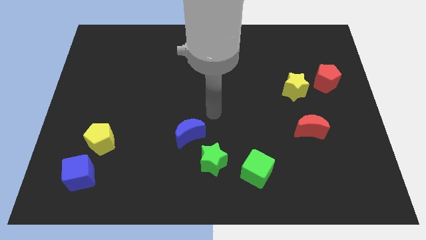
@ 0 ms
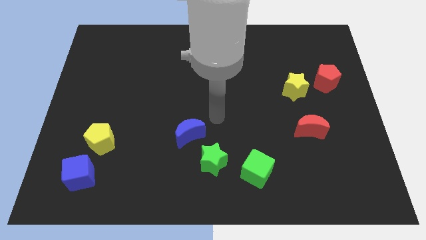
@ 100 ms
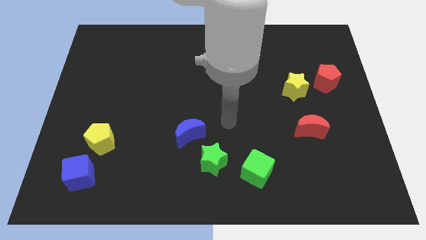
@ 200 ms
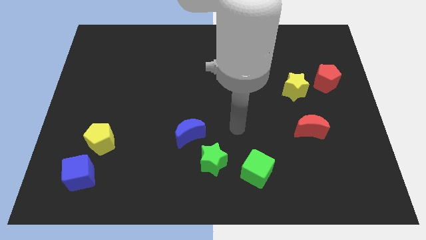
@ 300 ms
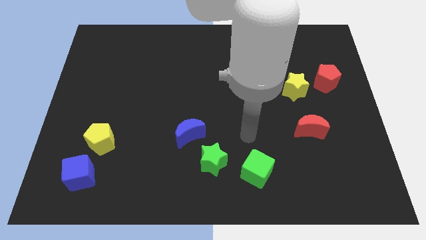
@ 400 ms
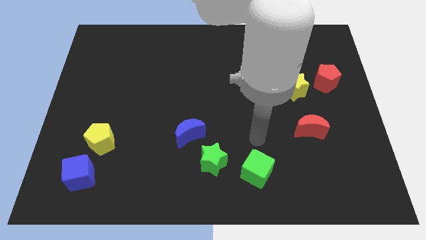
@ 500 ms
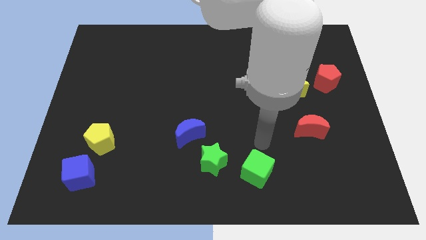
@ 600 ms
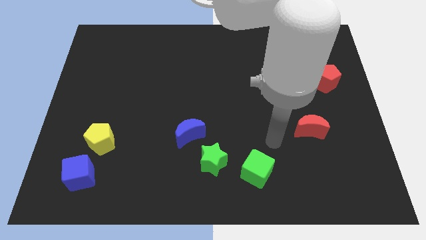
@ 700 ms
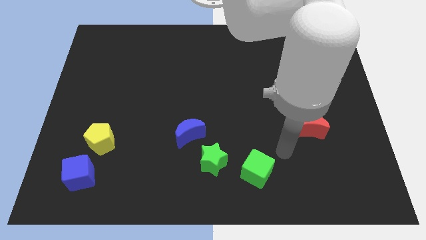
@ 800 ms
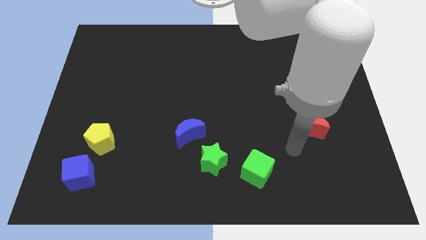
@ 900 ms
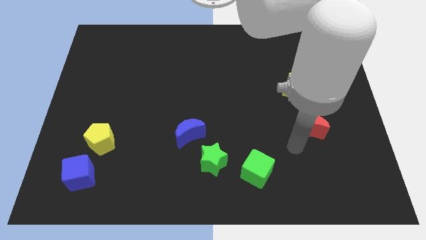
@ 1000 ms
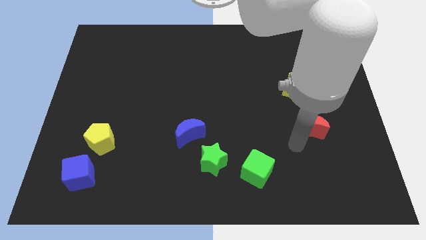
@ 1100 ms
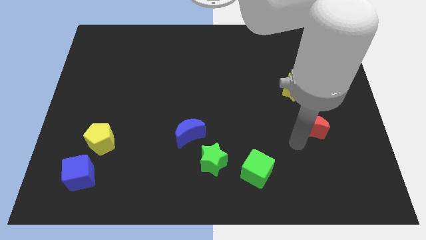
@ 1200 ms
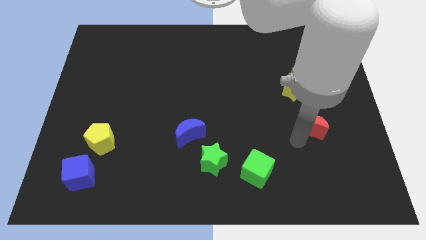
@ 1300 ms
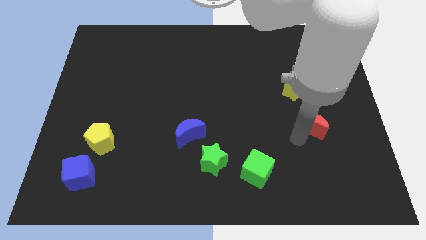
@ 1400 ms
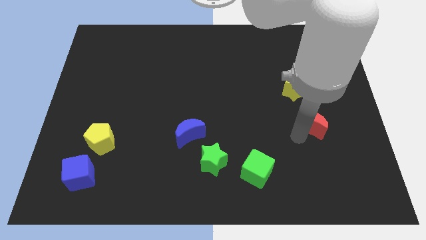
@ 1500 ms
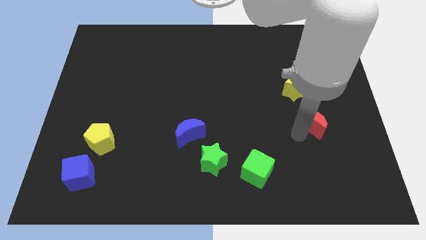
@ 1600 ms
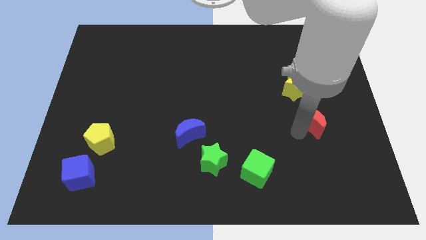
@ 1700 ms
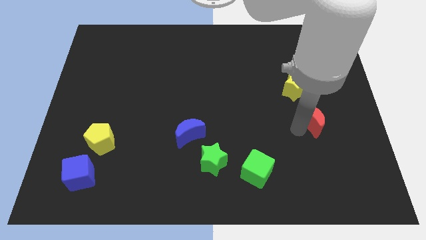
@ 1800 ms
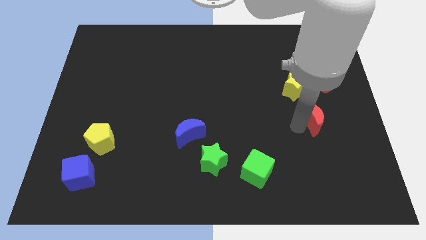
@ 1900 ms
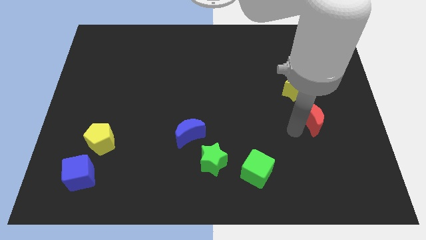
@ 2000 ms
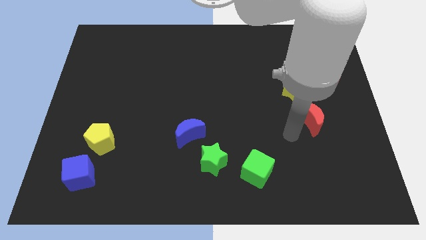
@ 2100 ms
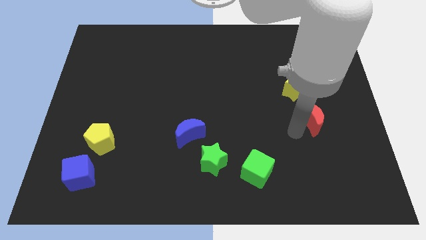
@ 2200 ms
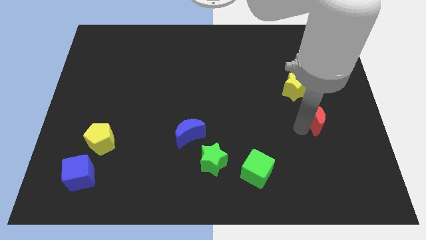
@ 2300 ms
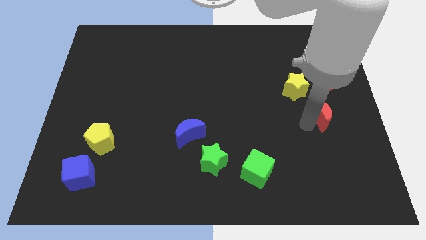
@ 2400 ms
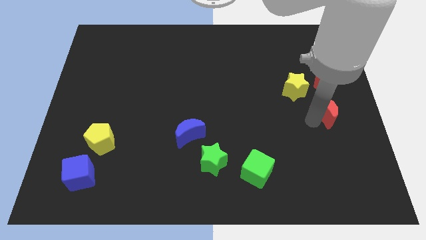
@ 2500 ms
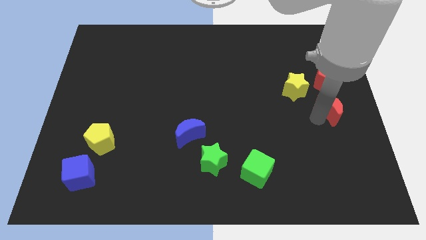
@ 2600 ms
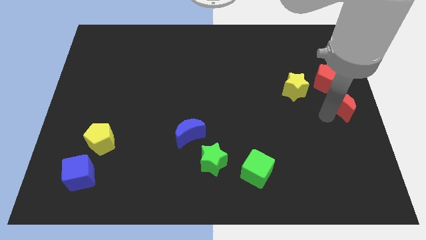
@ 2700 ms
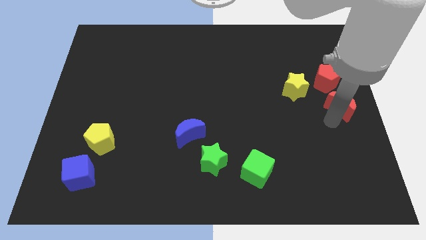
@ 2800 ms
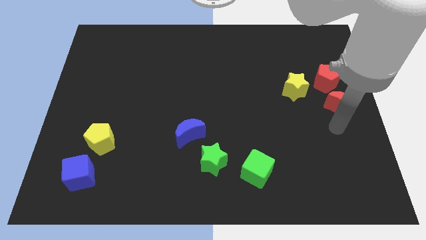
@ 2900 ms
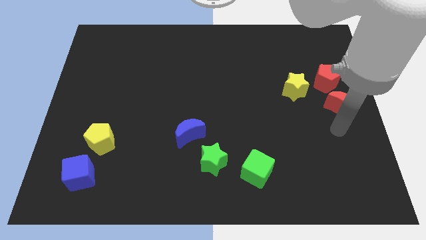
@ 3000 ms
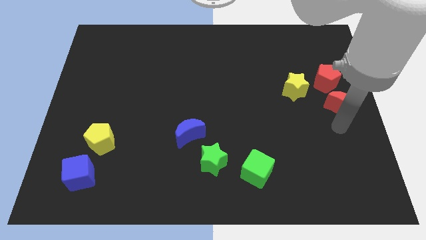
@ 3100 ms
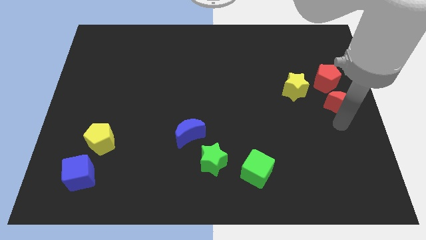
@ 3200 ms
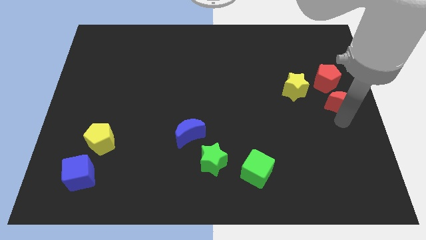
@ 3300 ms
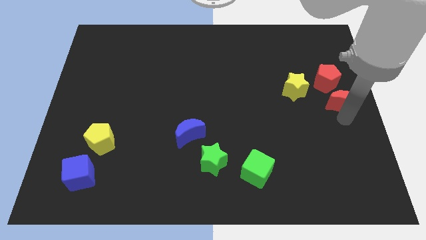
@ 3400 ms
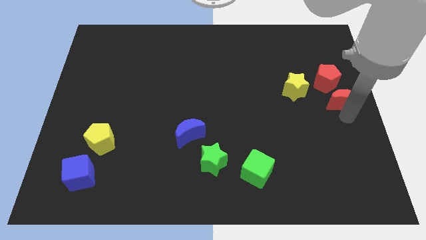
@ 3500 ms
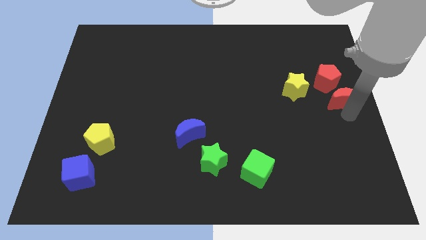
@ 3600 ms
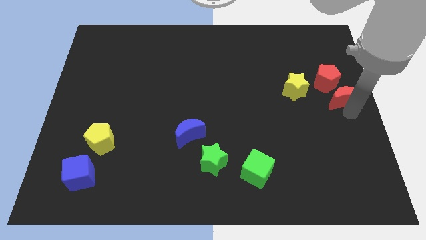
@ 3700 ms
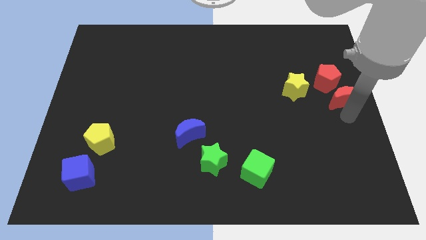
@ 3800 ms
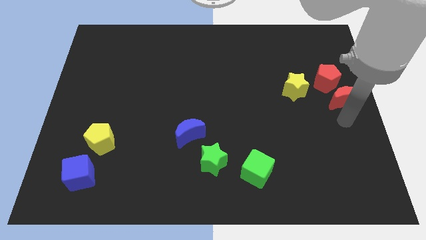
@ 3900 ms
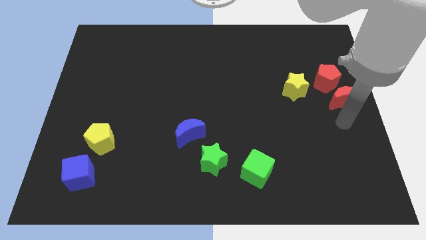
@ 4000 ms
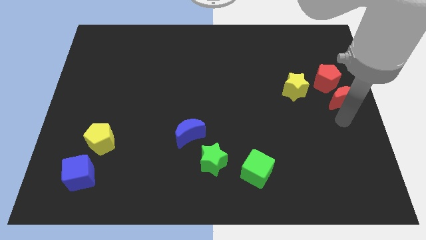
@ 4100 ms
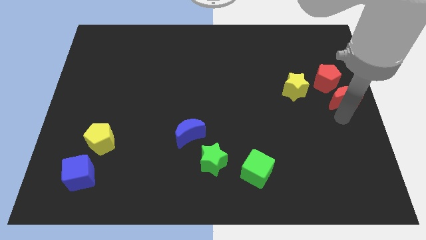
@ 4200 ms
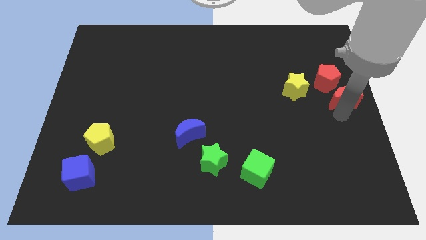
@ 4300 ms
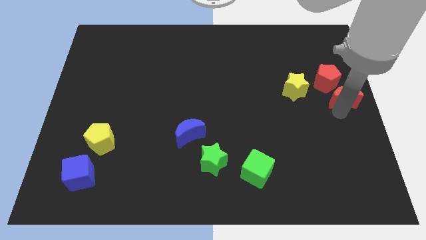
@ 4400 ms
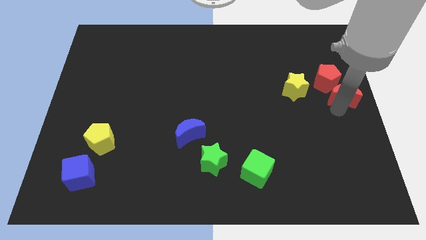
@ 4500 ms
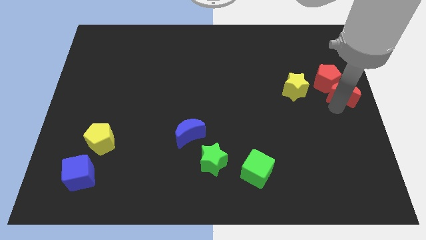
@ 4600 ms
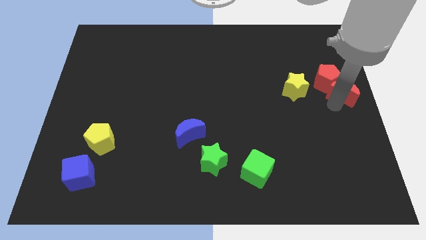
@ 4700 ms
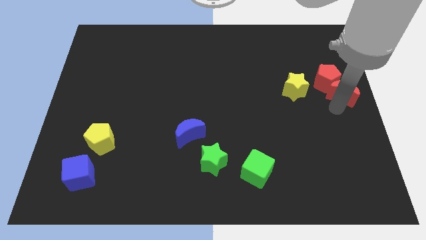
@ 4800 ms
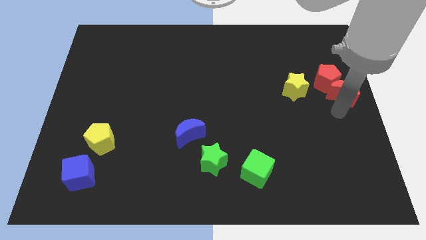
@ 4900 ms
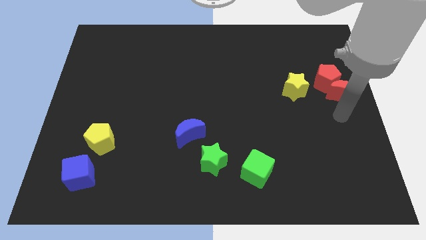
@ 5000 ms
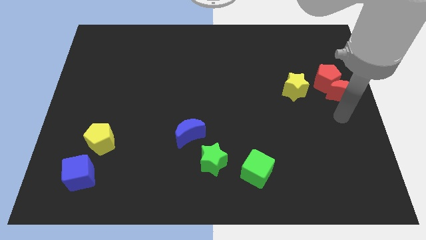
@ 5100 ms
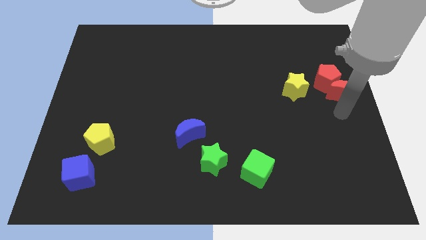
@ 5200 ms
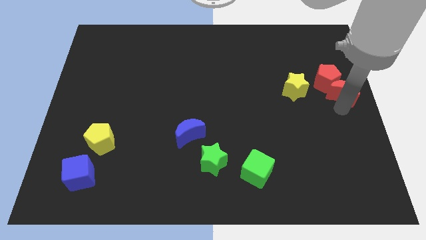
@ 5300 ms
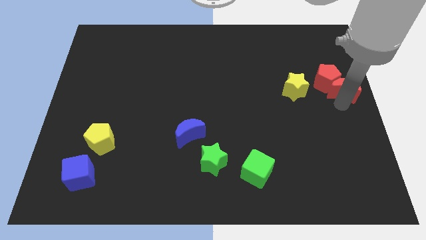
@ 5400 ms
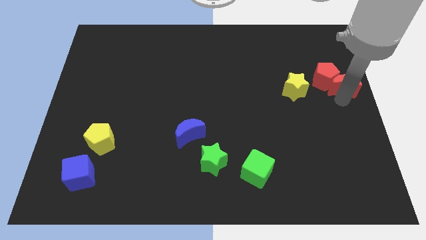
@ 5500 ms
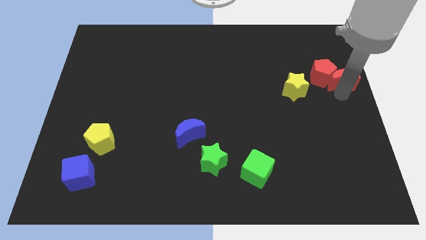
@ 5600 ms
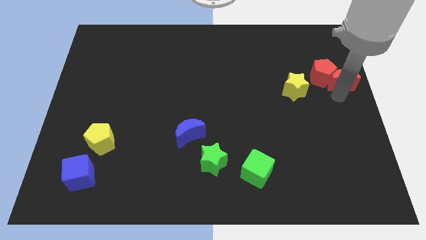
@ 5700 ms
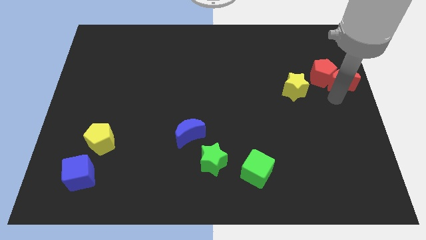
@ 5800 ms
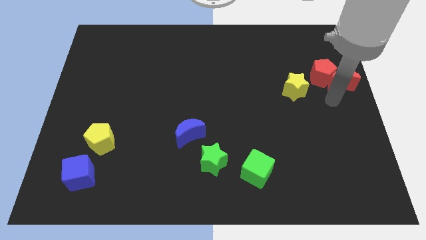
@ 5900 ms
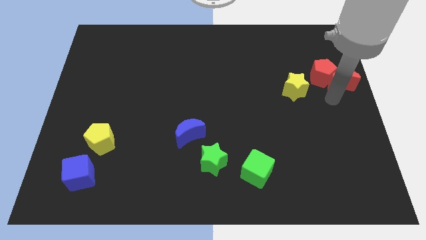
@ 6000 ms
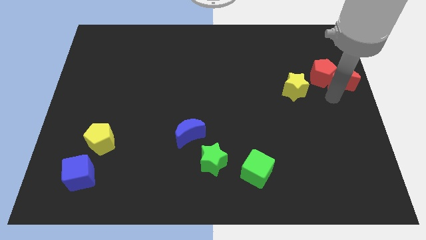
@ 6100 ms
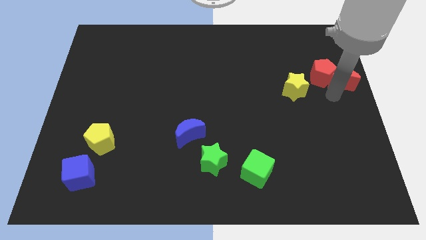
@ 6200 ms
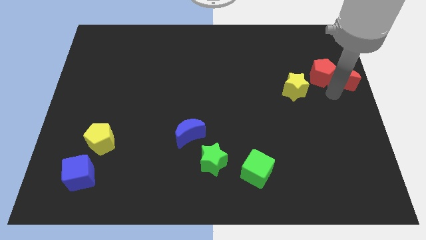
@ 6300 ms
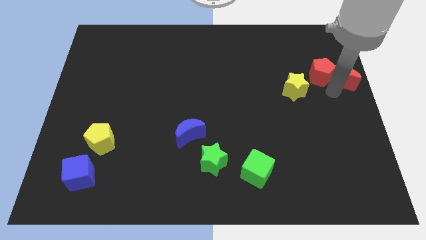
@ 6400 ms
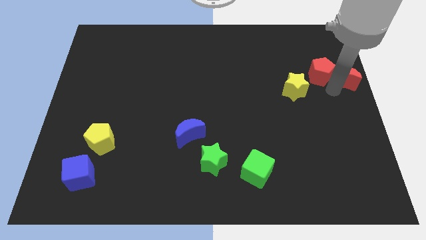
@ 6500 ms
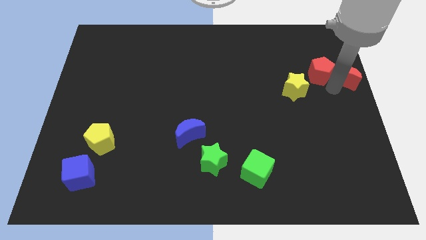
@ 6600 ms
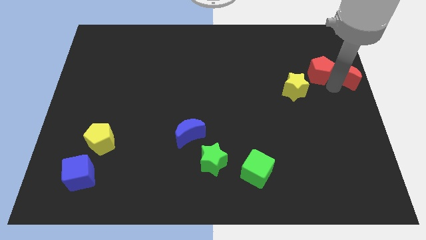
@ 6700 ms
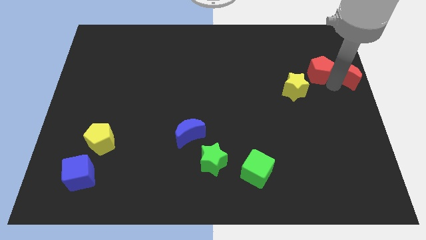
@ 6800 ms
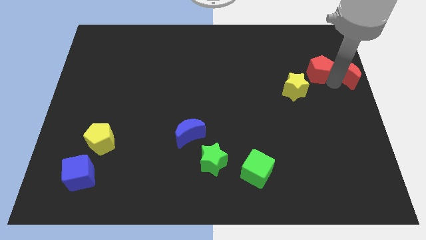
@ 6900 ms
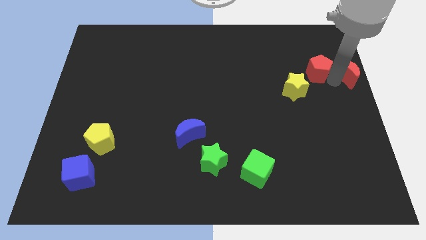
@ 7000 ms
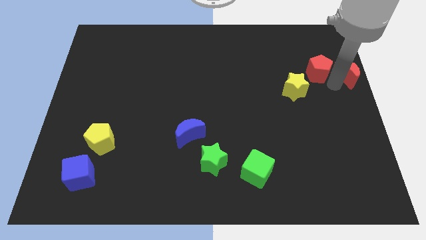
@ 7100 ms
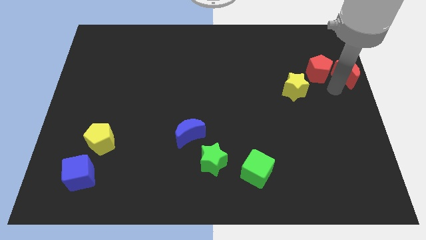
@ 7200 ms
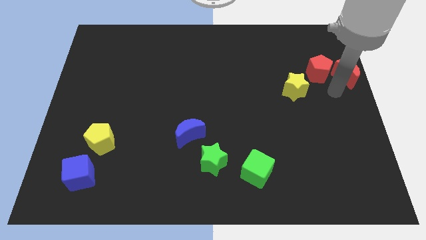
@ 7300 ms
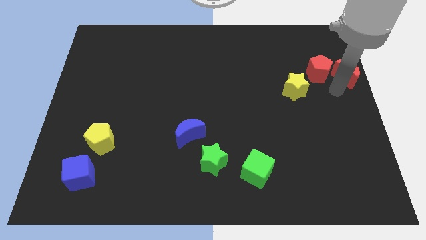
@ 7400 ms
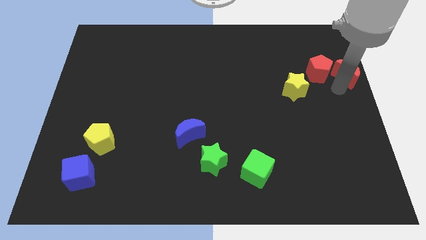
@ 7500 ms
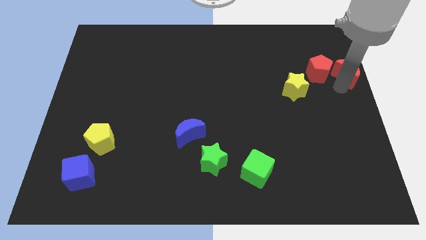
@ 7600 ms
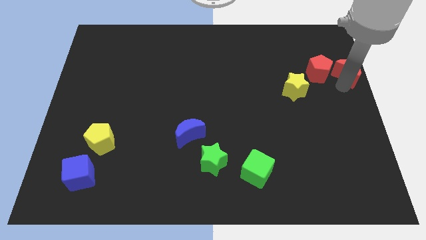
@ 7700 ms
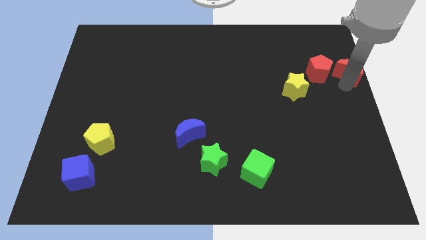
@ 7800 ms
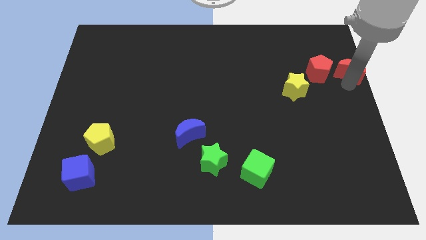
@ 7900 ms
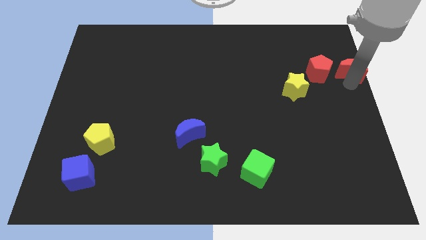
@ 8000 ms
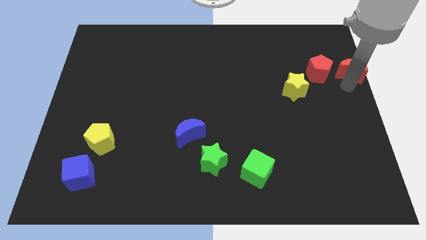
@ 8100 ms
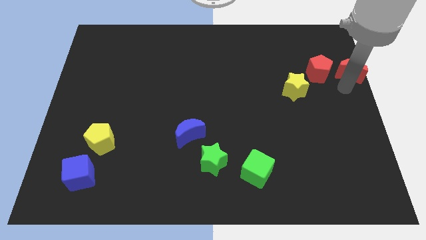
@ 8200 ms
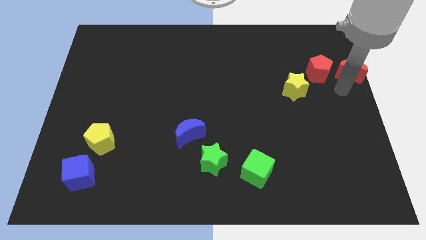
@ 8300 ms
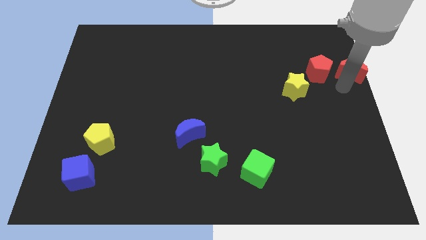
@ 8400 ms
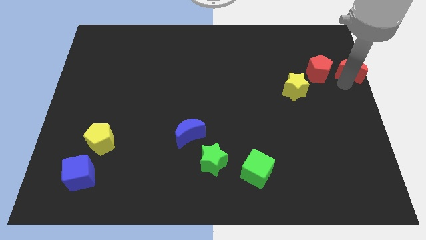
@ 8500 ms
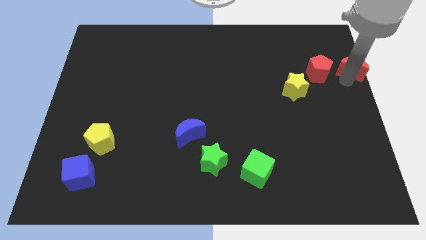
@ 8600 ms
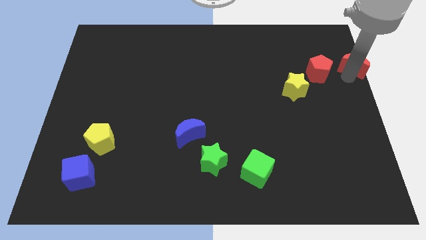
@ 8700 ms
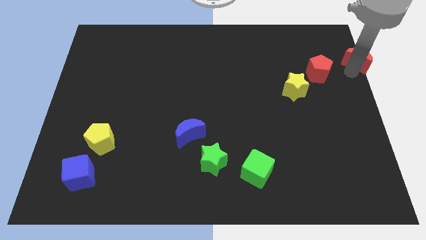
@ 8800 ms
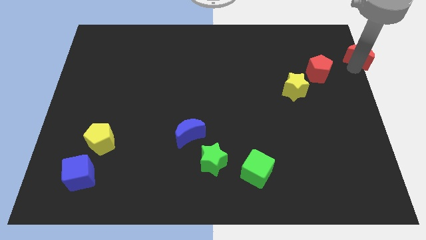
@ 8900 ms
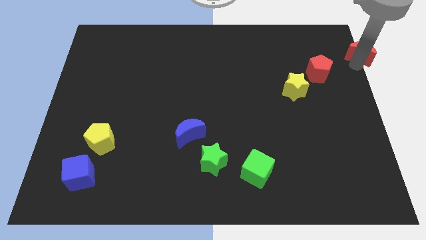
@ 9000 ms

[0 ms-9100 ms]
push the red moon to the top right corner
